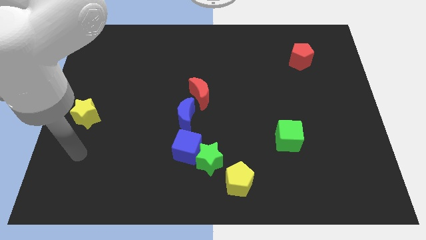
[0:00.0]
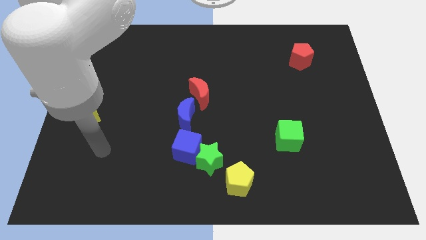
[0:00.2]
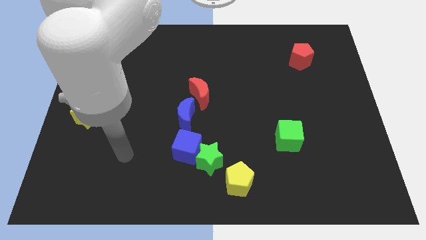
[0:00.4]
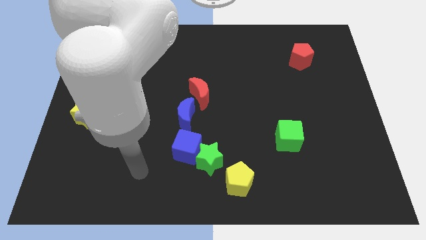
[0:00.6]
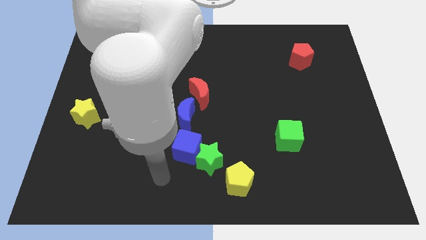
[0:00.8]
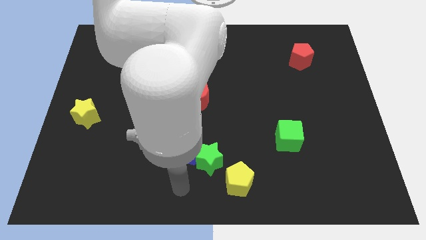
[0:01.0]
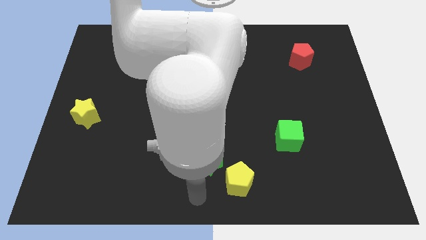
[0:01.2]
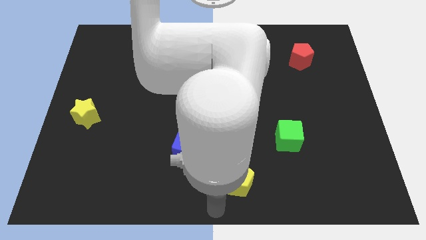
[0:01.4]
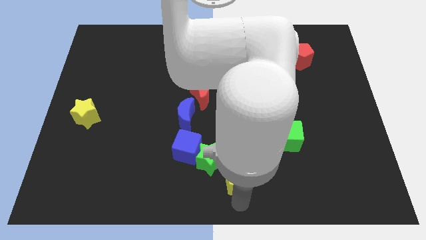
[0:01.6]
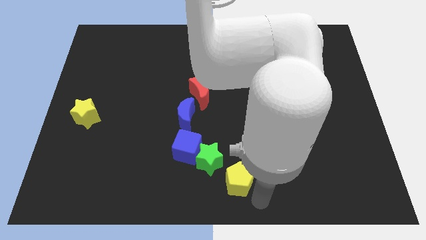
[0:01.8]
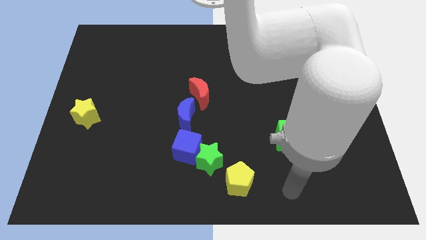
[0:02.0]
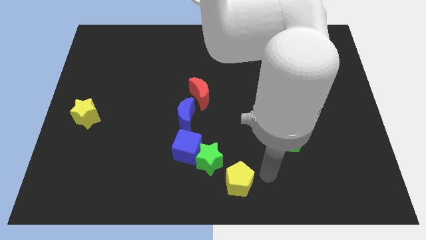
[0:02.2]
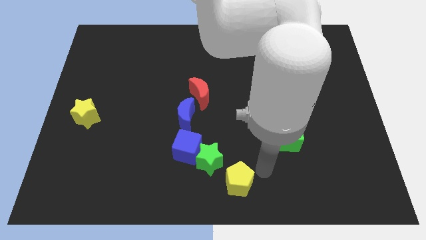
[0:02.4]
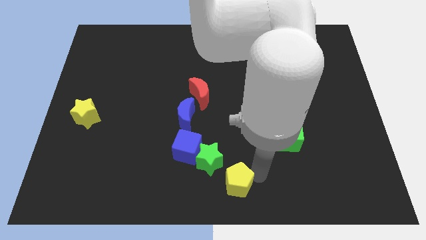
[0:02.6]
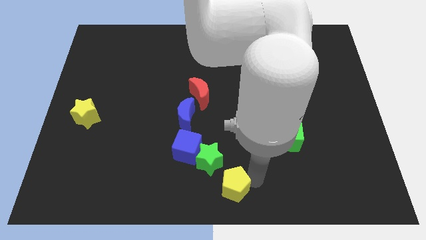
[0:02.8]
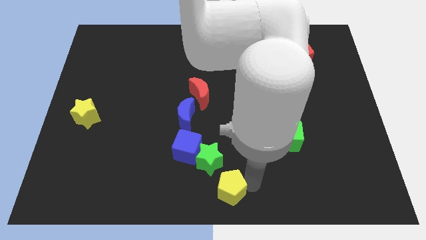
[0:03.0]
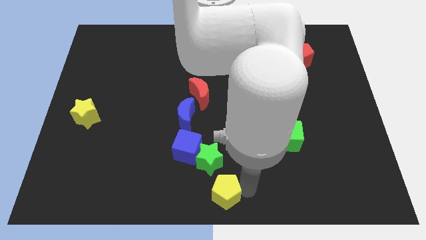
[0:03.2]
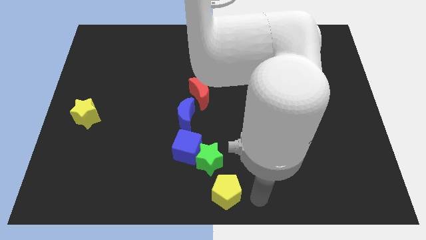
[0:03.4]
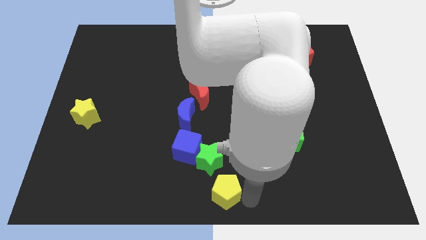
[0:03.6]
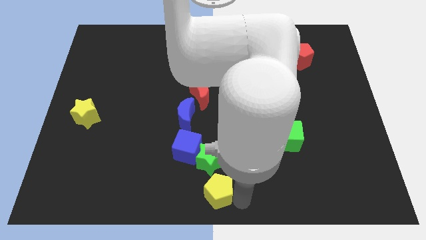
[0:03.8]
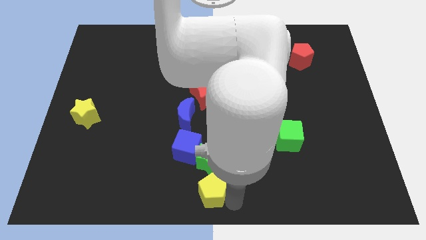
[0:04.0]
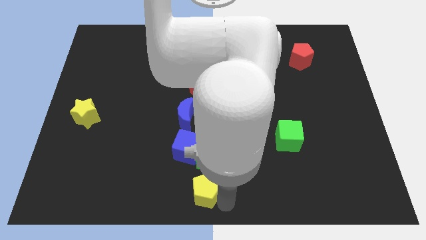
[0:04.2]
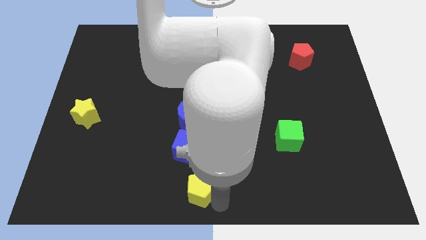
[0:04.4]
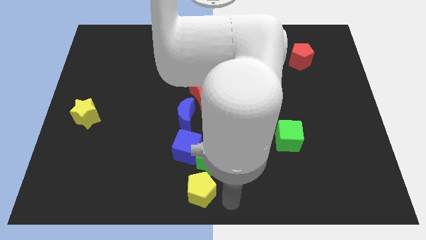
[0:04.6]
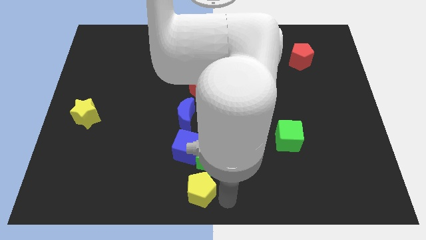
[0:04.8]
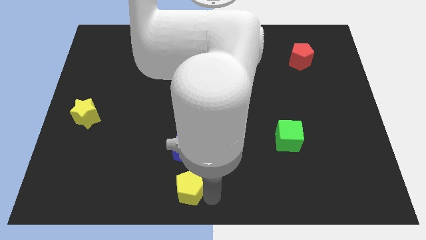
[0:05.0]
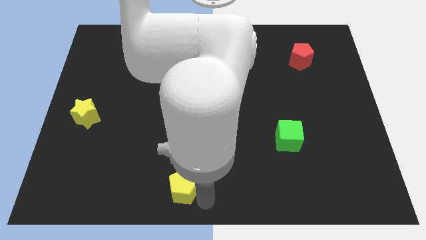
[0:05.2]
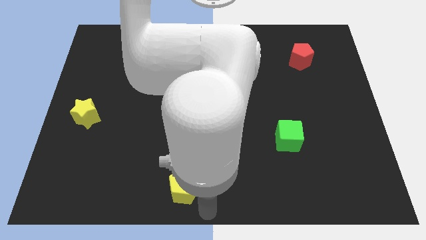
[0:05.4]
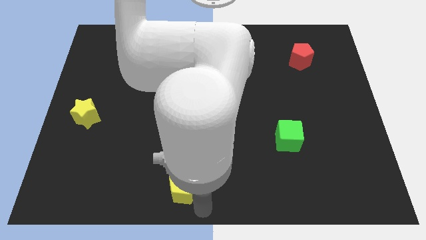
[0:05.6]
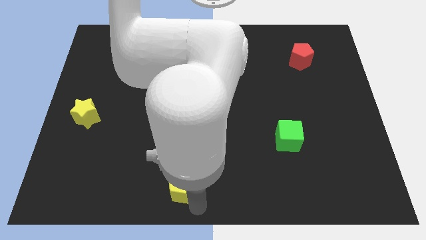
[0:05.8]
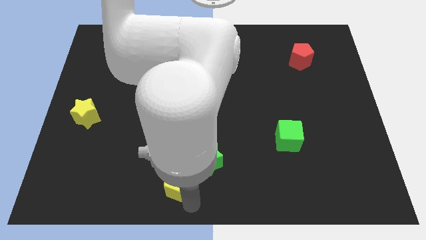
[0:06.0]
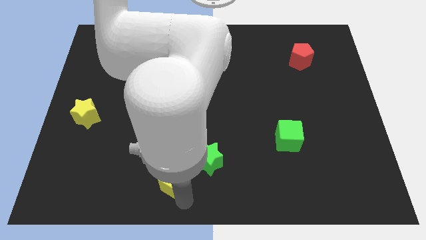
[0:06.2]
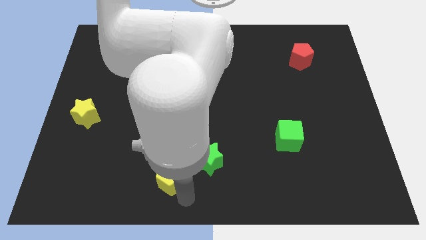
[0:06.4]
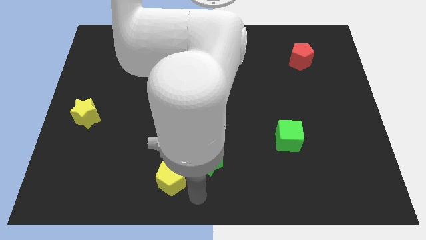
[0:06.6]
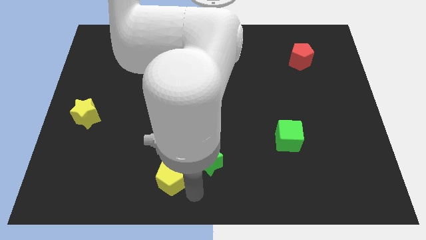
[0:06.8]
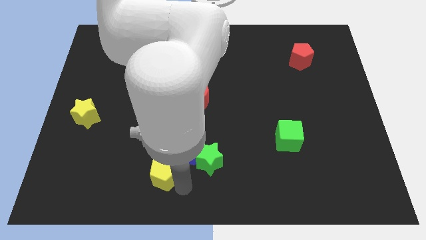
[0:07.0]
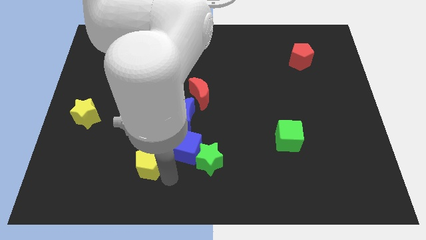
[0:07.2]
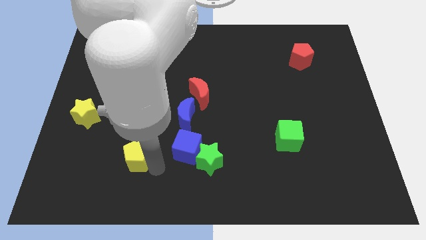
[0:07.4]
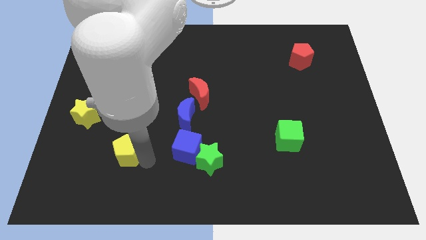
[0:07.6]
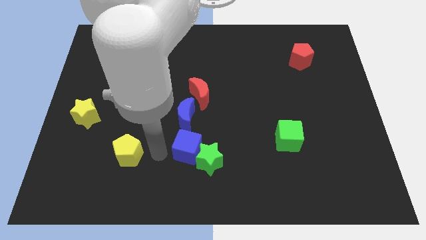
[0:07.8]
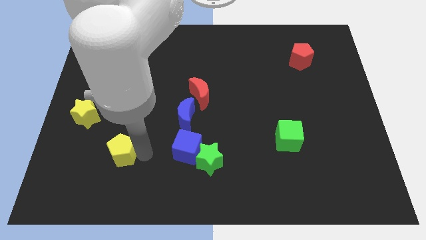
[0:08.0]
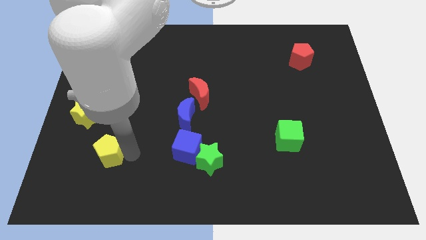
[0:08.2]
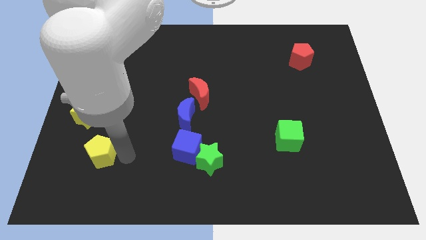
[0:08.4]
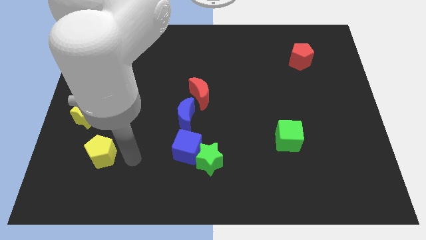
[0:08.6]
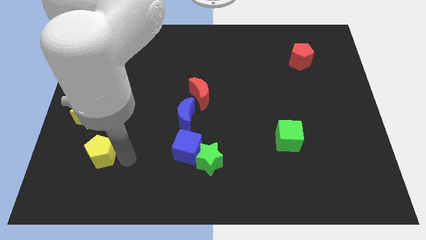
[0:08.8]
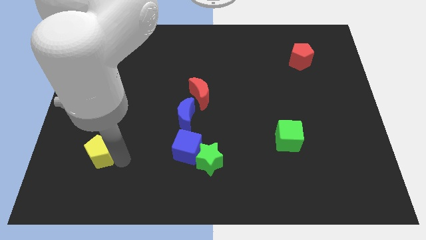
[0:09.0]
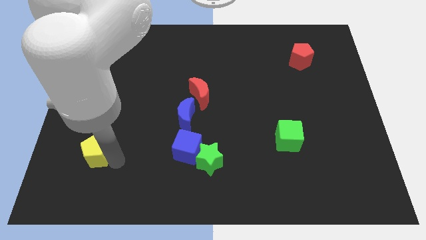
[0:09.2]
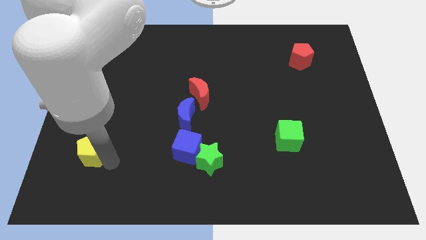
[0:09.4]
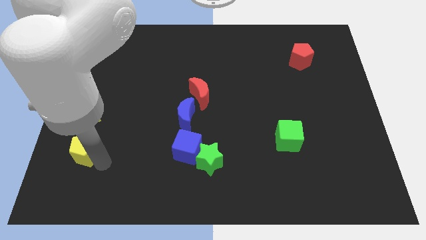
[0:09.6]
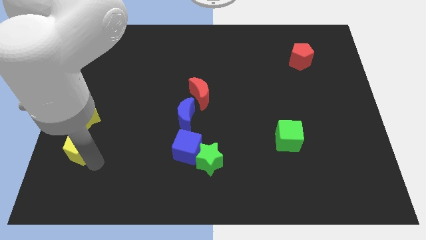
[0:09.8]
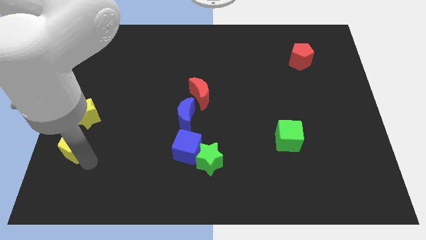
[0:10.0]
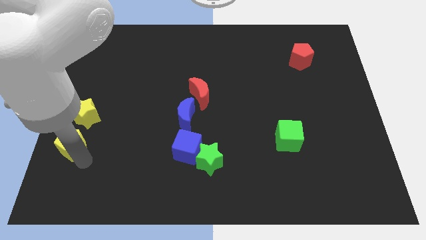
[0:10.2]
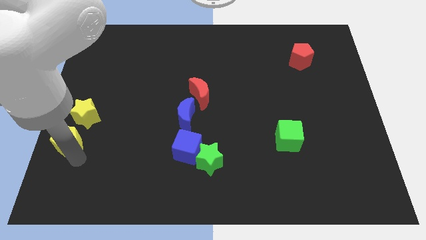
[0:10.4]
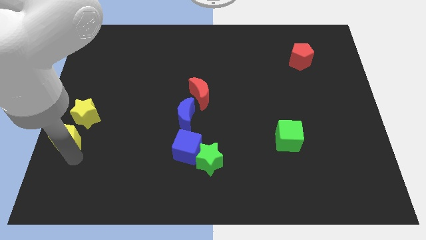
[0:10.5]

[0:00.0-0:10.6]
move the yellow pentagon to the left side of the board
